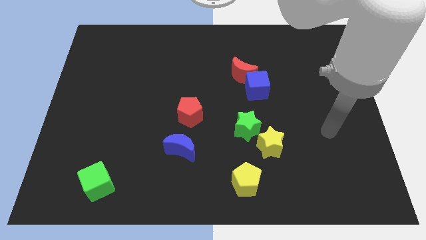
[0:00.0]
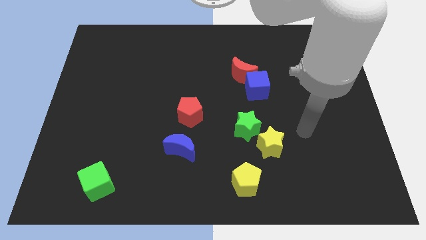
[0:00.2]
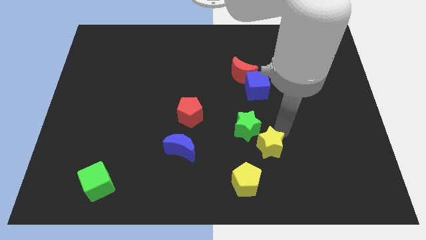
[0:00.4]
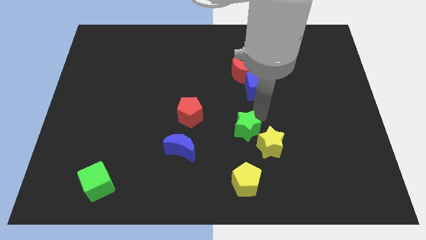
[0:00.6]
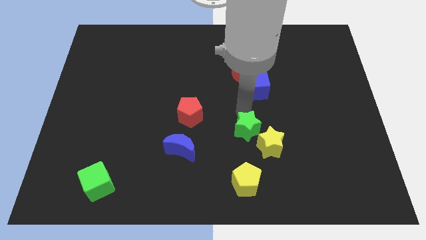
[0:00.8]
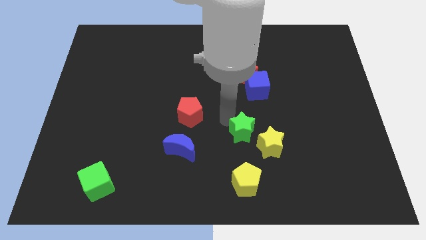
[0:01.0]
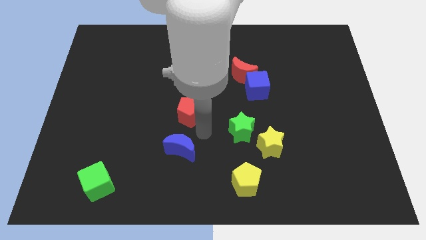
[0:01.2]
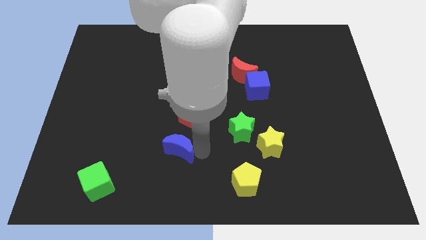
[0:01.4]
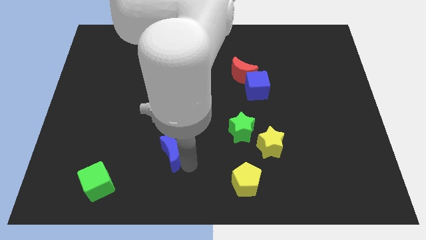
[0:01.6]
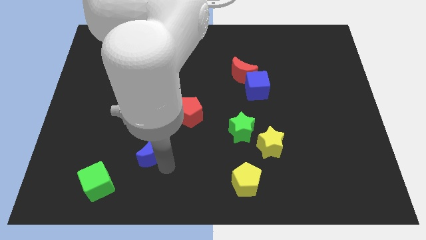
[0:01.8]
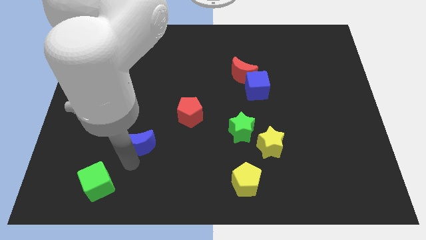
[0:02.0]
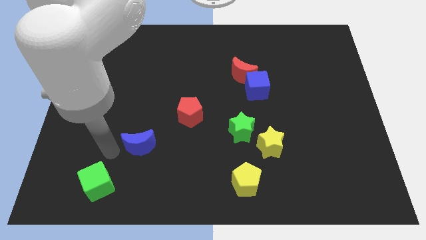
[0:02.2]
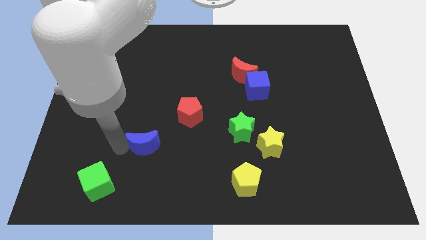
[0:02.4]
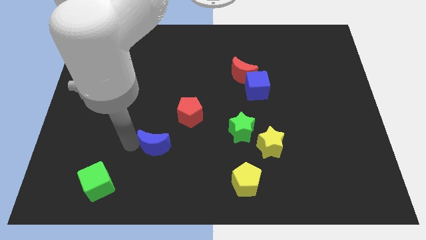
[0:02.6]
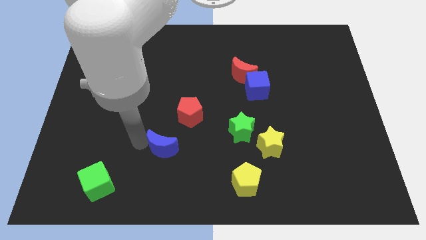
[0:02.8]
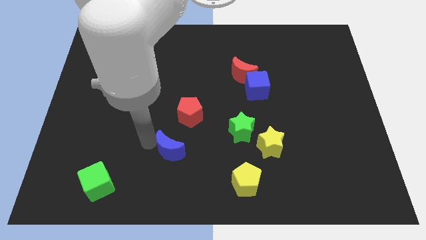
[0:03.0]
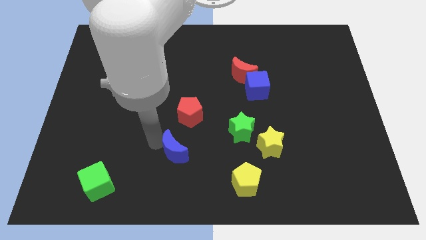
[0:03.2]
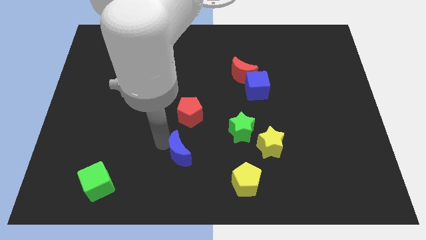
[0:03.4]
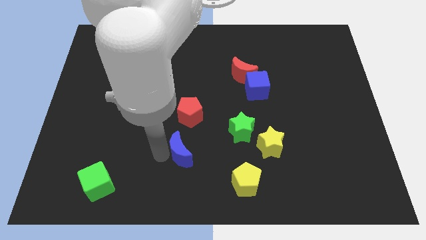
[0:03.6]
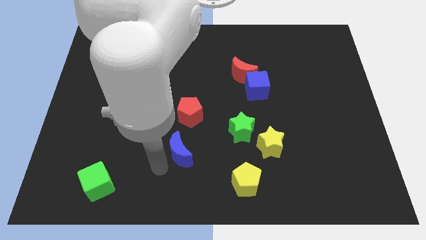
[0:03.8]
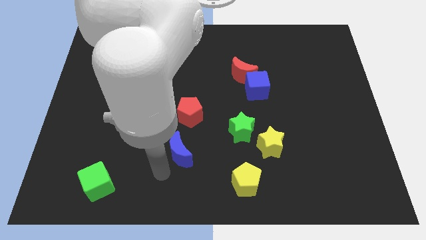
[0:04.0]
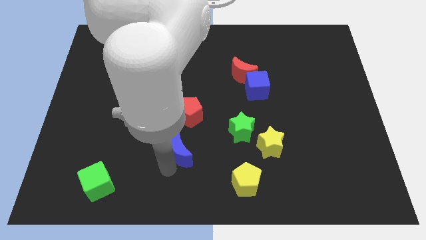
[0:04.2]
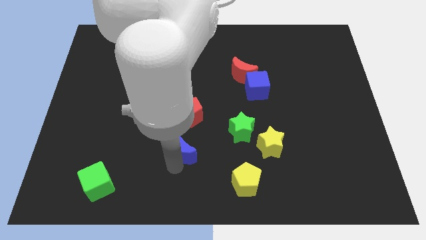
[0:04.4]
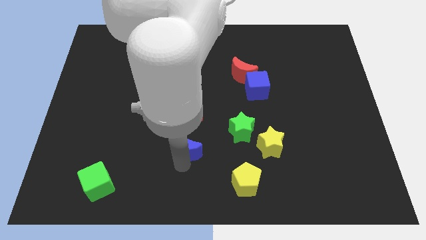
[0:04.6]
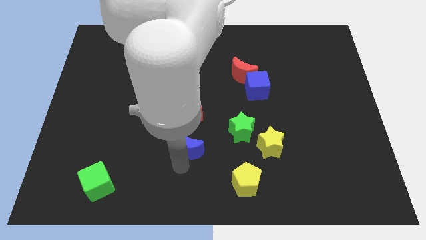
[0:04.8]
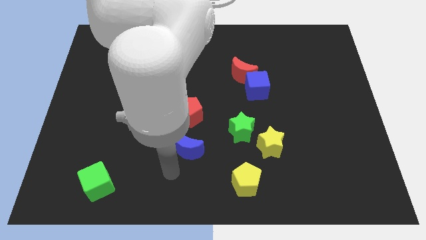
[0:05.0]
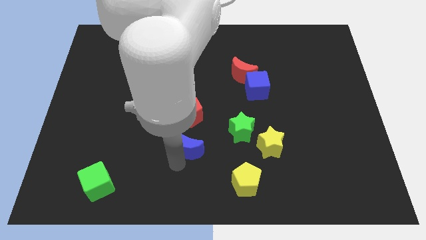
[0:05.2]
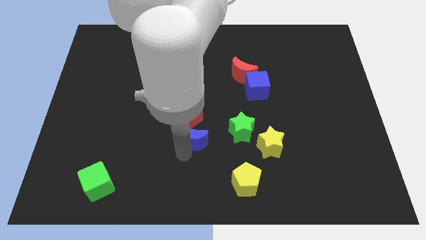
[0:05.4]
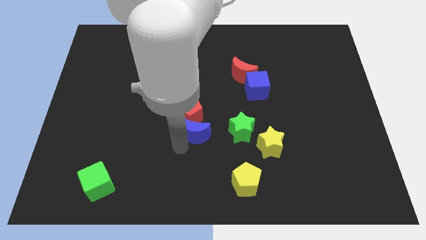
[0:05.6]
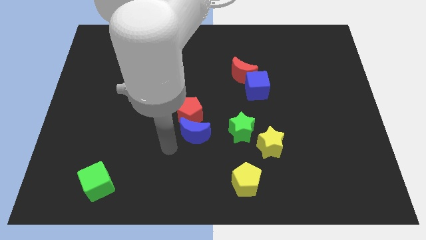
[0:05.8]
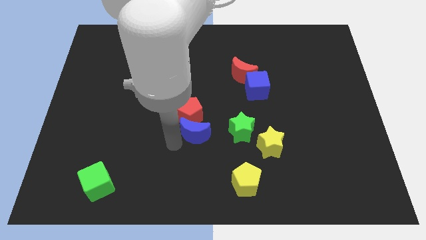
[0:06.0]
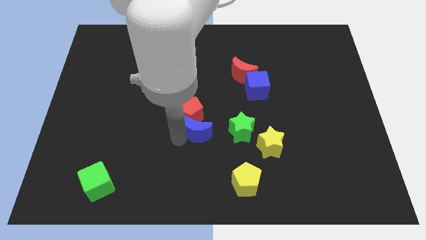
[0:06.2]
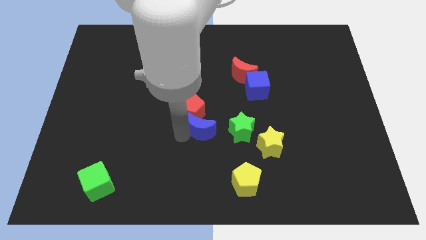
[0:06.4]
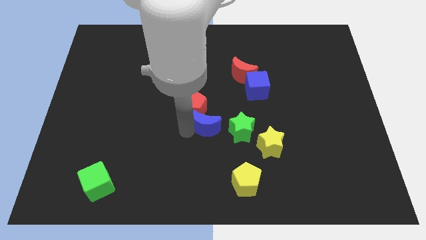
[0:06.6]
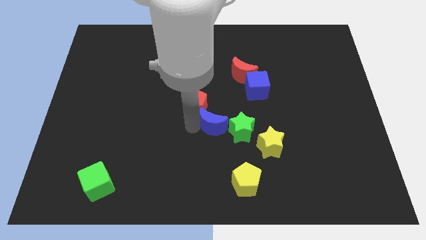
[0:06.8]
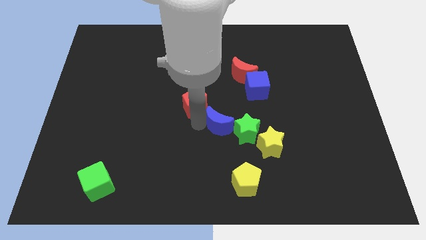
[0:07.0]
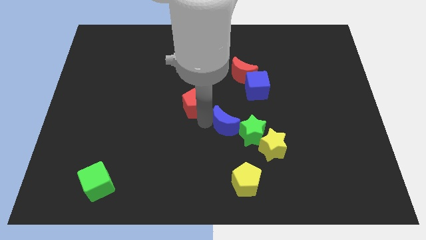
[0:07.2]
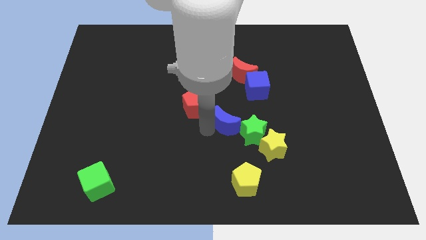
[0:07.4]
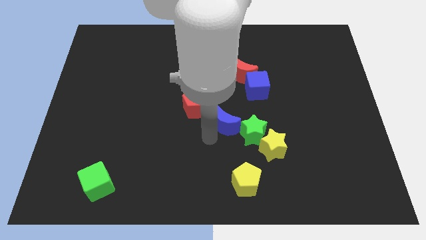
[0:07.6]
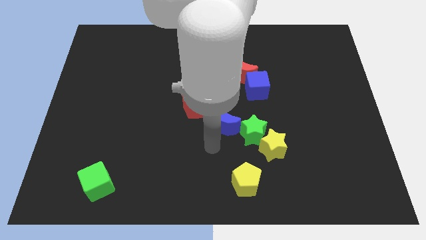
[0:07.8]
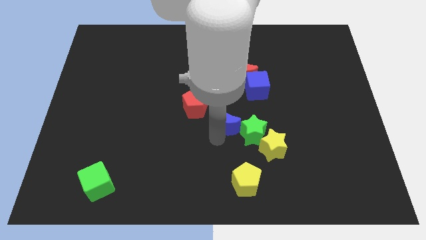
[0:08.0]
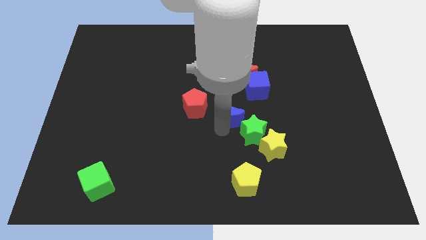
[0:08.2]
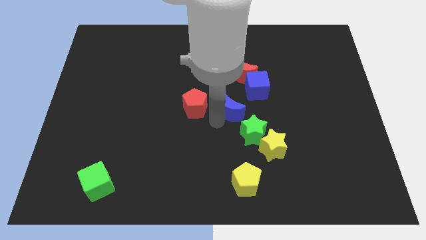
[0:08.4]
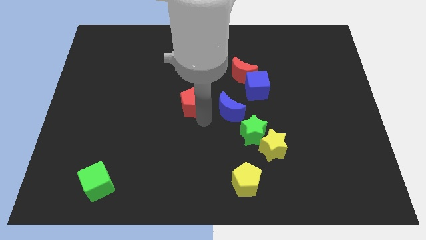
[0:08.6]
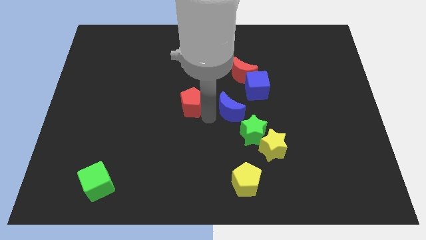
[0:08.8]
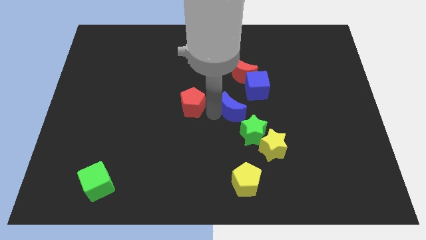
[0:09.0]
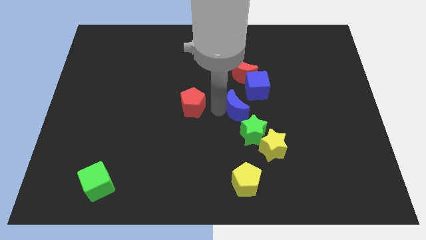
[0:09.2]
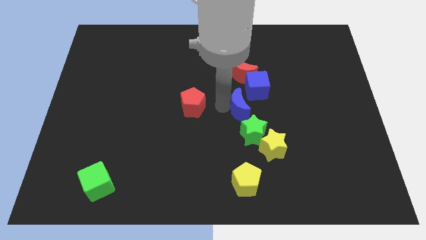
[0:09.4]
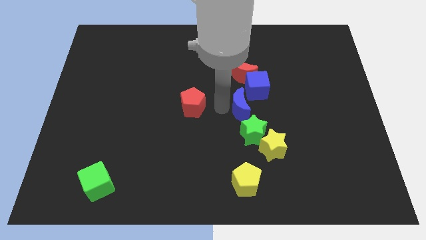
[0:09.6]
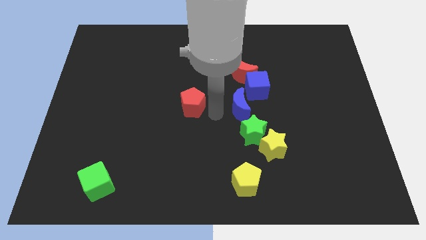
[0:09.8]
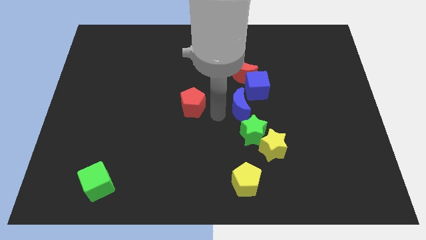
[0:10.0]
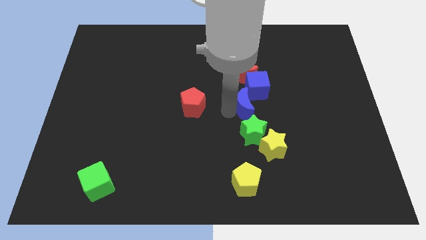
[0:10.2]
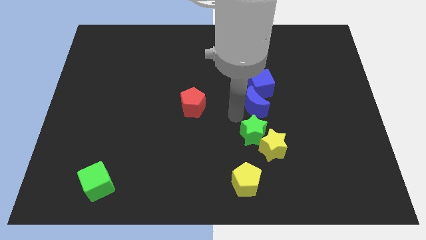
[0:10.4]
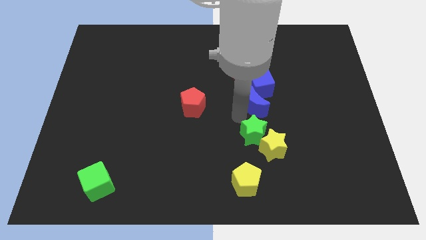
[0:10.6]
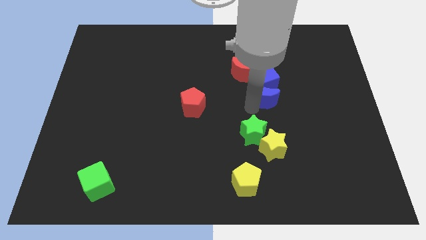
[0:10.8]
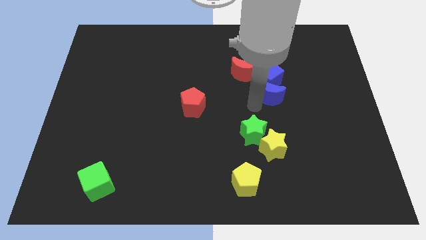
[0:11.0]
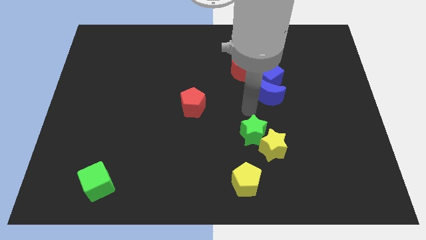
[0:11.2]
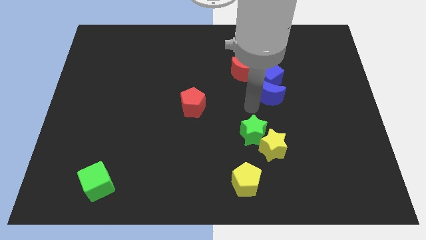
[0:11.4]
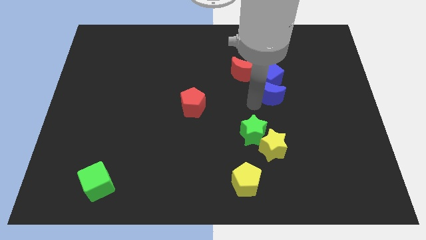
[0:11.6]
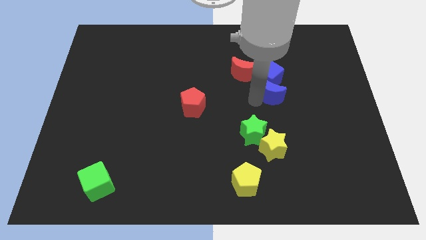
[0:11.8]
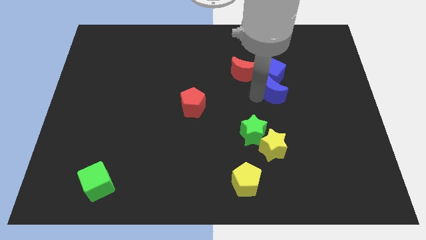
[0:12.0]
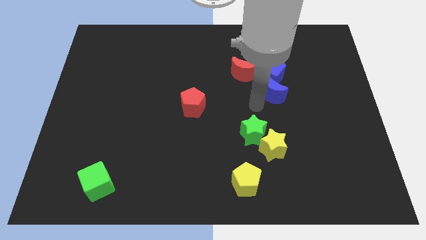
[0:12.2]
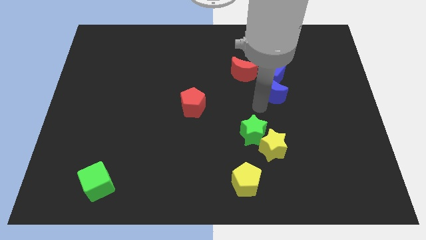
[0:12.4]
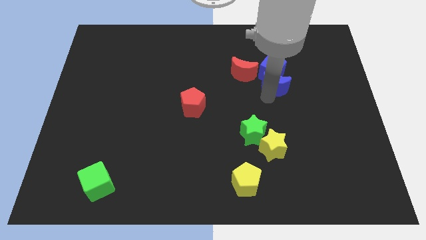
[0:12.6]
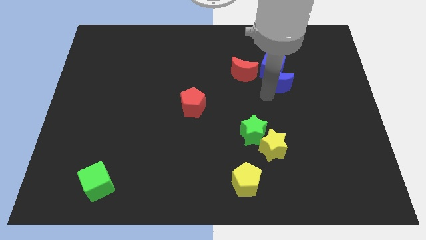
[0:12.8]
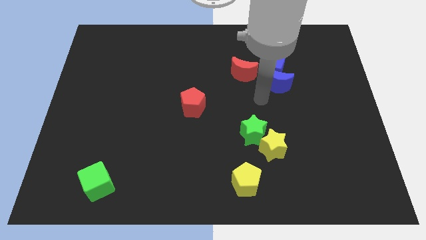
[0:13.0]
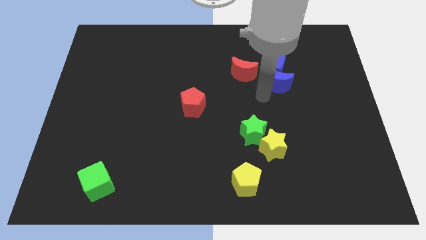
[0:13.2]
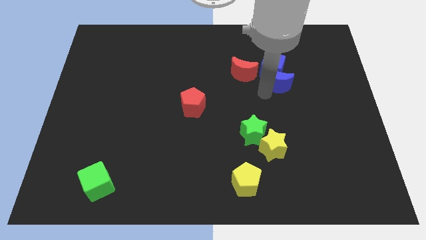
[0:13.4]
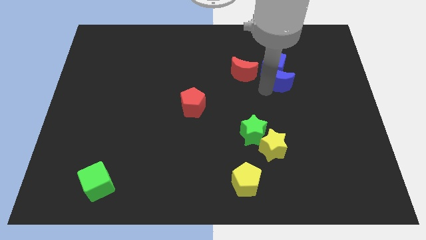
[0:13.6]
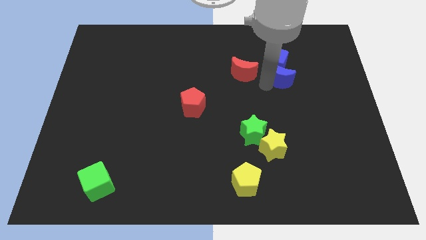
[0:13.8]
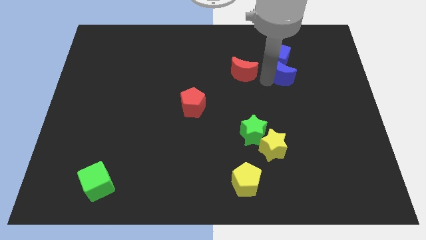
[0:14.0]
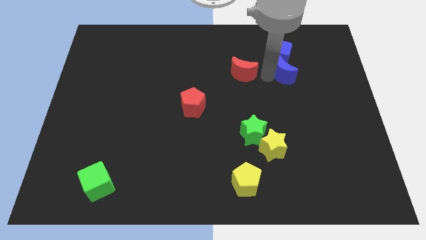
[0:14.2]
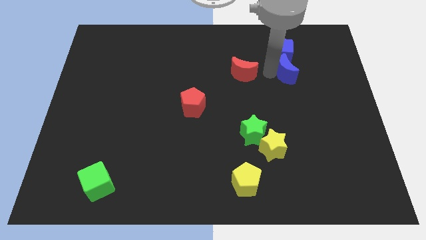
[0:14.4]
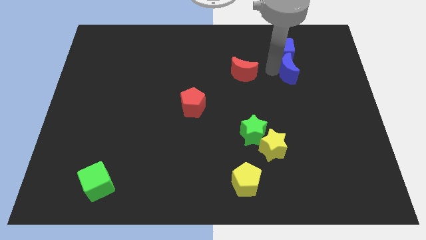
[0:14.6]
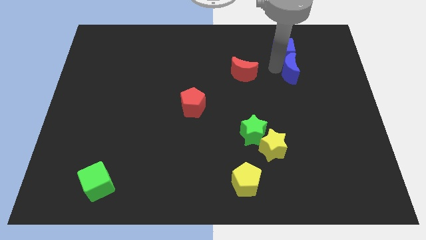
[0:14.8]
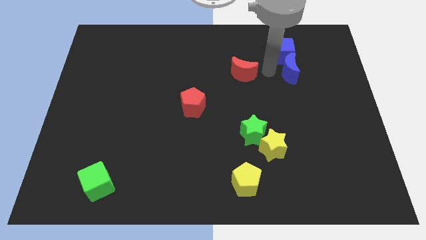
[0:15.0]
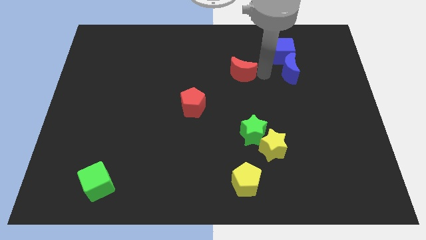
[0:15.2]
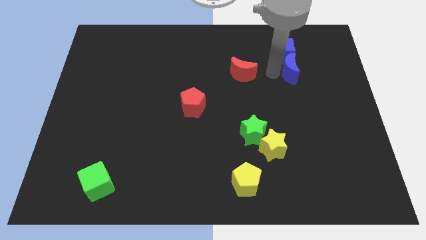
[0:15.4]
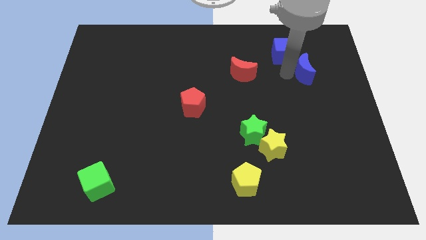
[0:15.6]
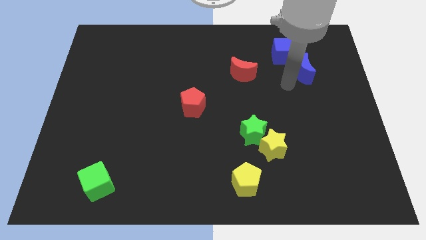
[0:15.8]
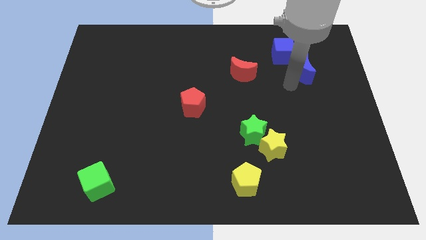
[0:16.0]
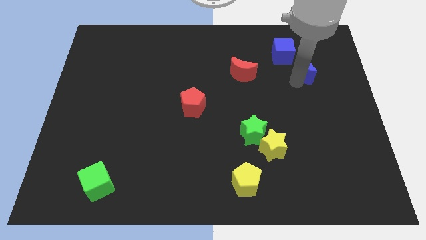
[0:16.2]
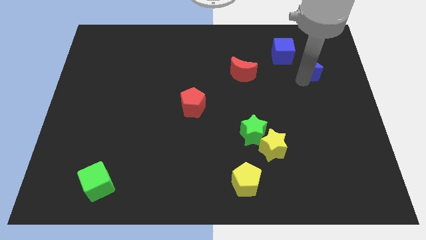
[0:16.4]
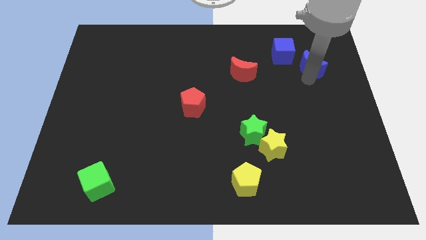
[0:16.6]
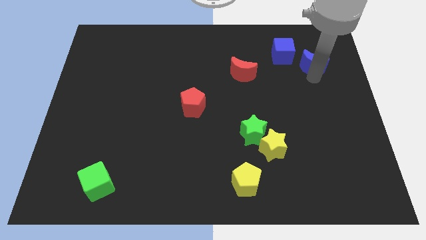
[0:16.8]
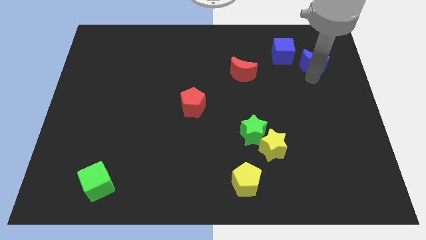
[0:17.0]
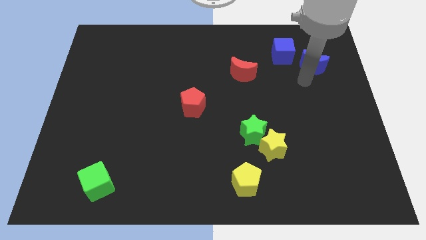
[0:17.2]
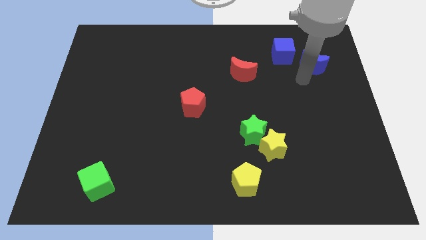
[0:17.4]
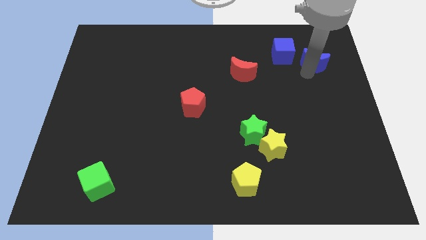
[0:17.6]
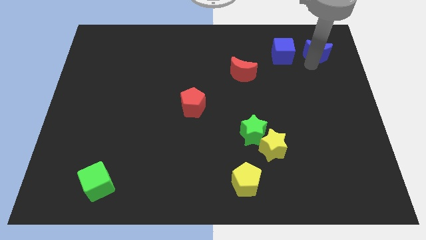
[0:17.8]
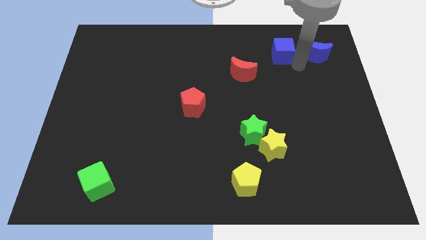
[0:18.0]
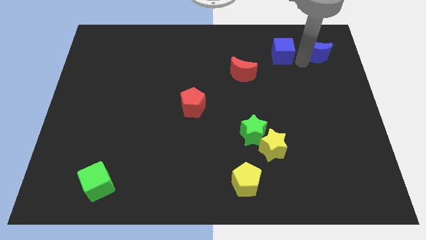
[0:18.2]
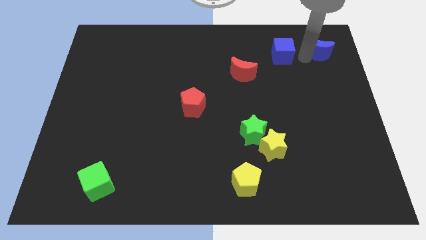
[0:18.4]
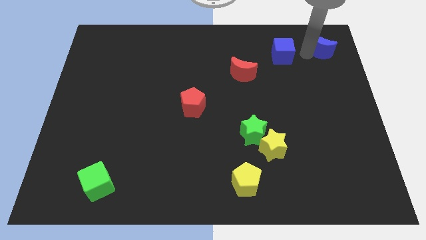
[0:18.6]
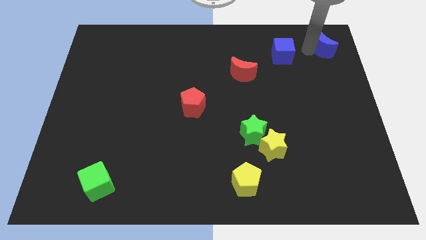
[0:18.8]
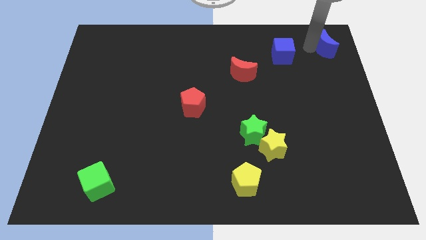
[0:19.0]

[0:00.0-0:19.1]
slide the blue moon to the upper right corner
